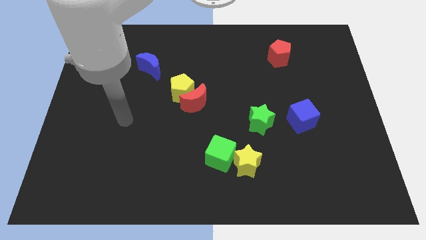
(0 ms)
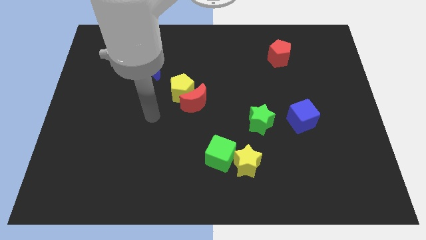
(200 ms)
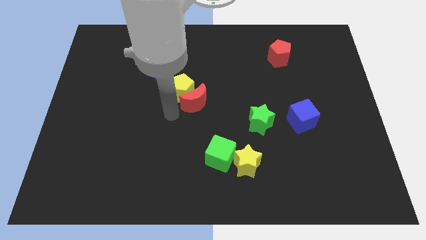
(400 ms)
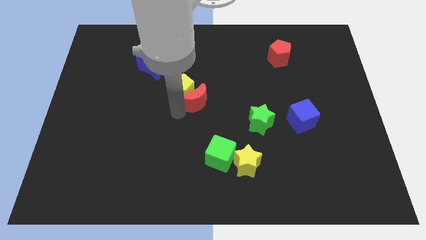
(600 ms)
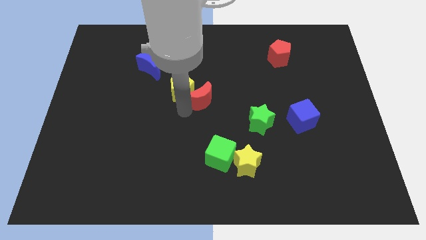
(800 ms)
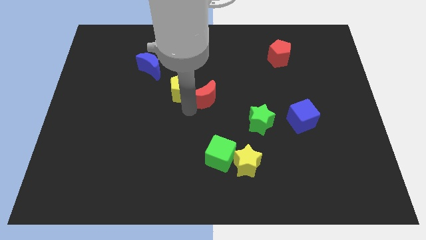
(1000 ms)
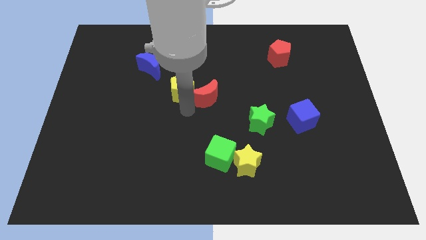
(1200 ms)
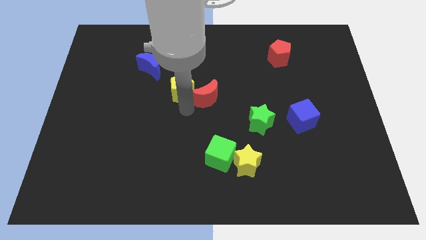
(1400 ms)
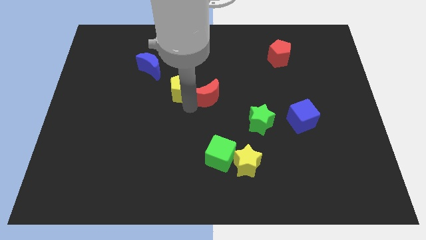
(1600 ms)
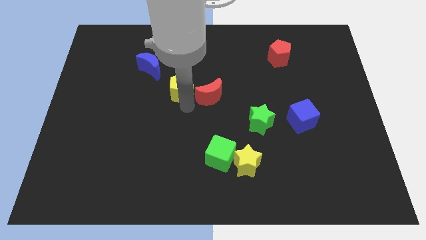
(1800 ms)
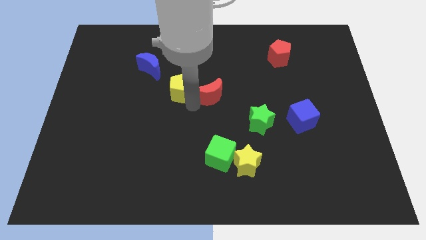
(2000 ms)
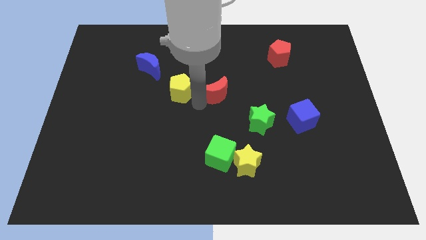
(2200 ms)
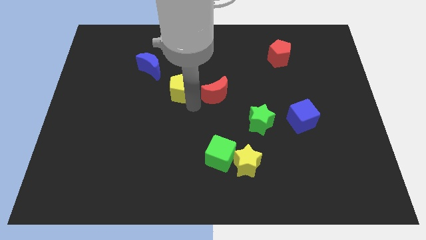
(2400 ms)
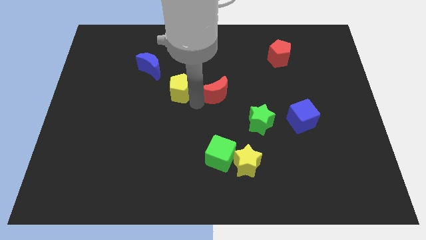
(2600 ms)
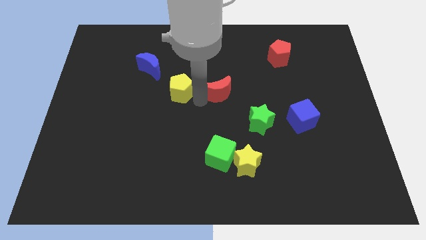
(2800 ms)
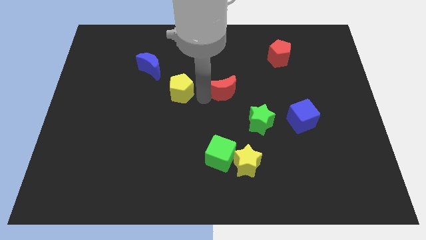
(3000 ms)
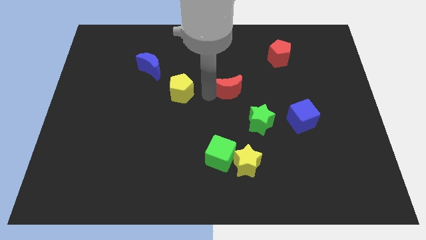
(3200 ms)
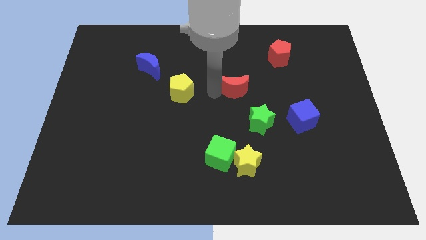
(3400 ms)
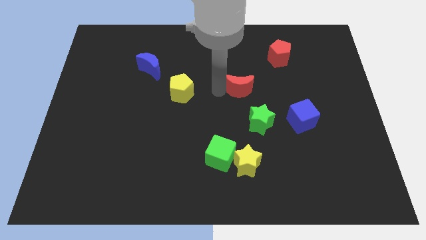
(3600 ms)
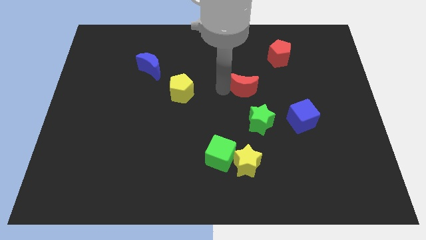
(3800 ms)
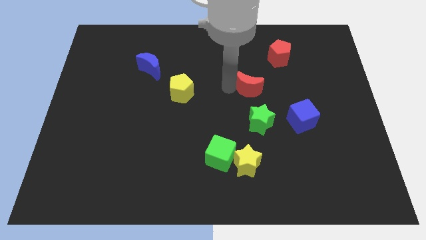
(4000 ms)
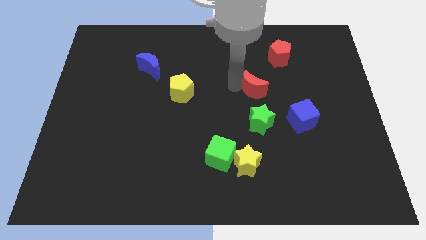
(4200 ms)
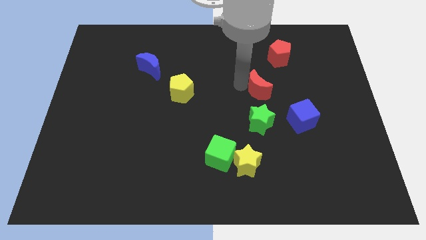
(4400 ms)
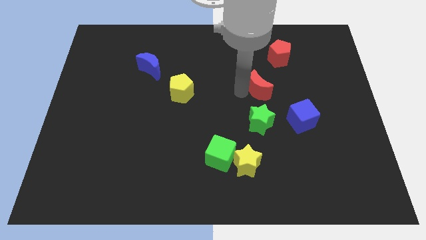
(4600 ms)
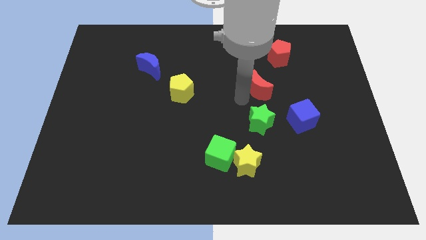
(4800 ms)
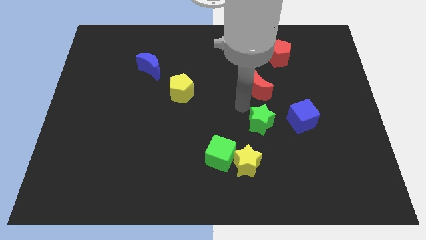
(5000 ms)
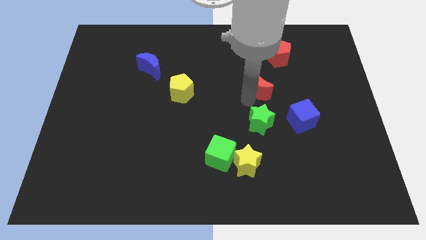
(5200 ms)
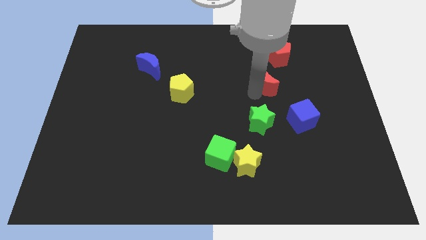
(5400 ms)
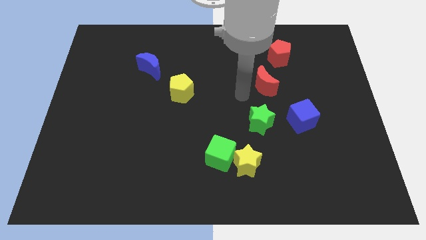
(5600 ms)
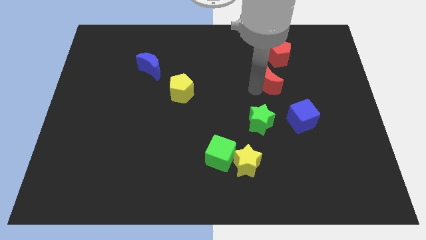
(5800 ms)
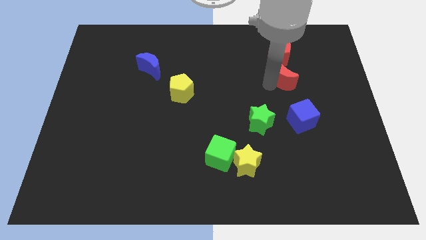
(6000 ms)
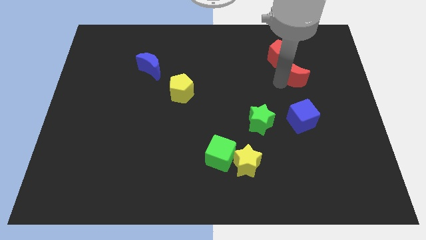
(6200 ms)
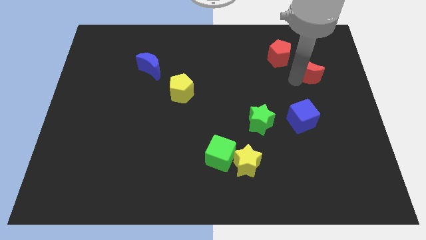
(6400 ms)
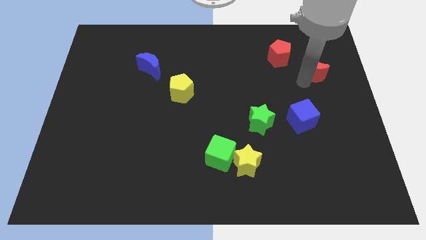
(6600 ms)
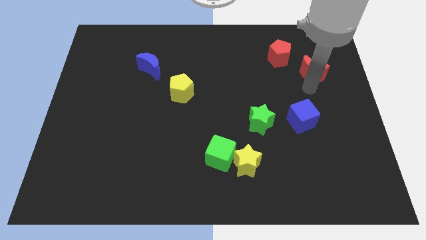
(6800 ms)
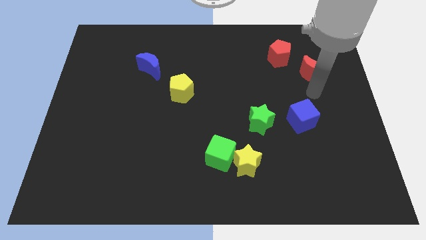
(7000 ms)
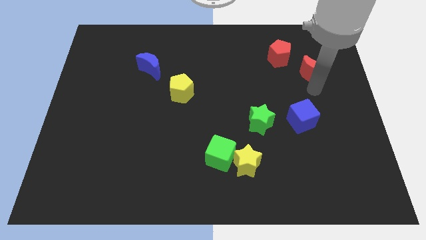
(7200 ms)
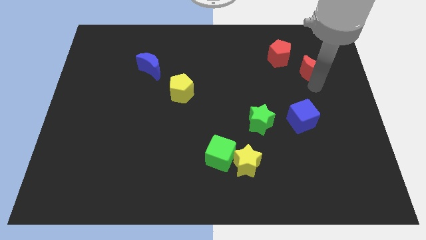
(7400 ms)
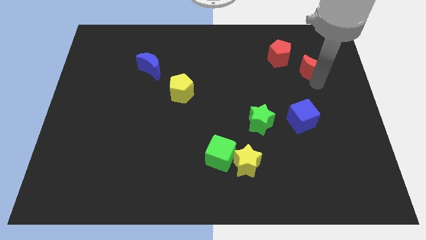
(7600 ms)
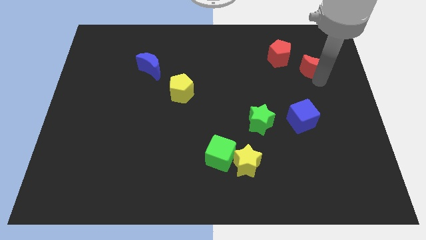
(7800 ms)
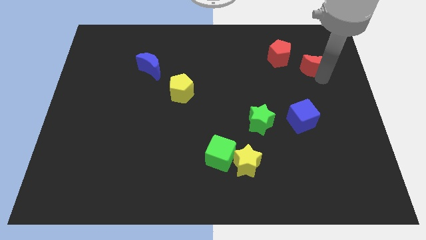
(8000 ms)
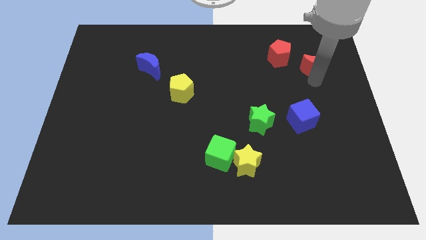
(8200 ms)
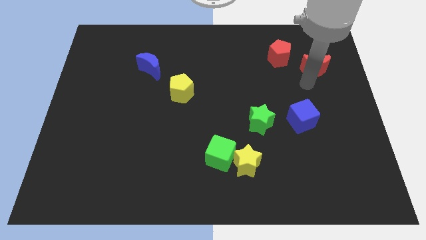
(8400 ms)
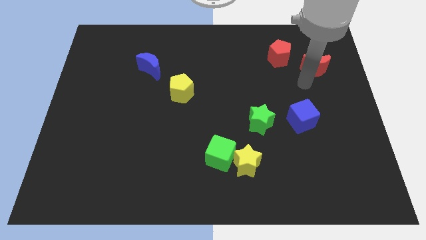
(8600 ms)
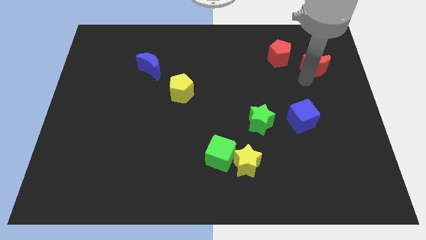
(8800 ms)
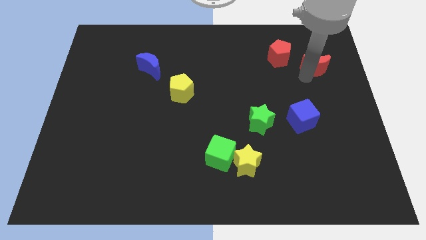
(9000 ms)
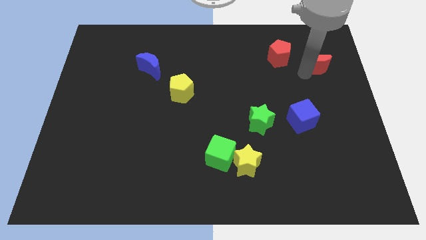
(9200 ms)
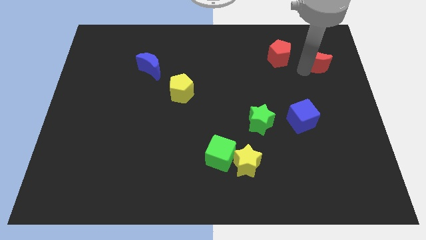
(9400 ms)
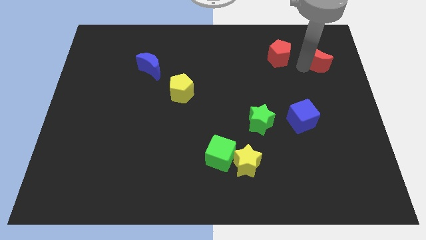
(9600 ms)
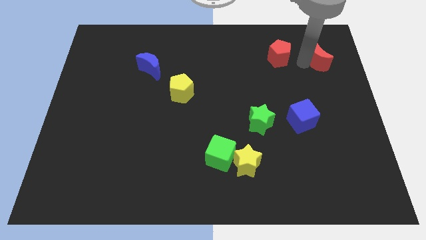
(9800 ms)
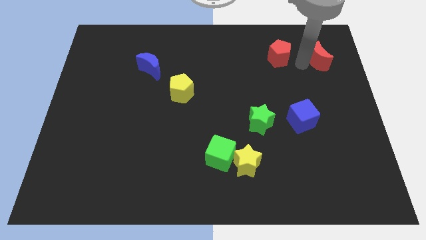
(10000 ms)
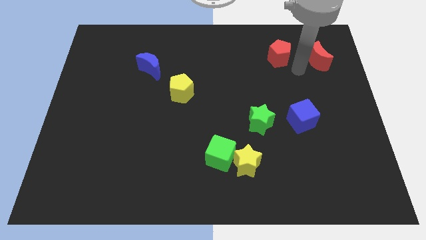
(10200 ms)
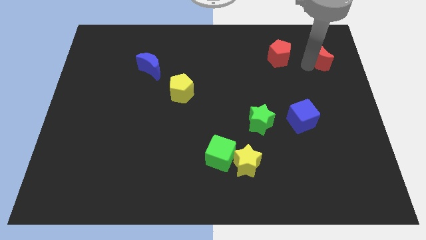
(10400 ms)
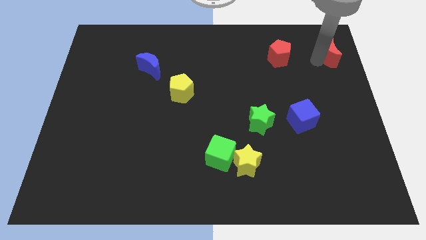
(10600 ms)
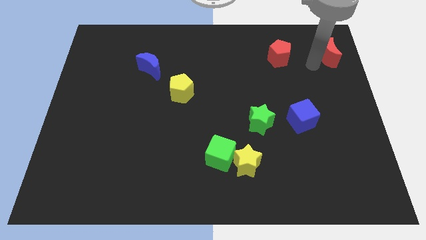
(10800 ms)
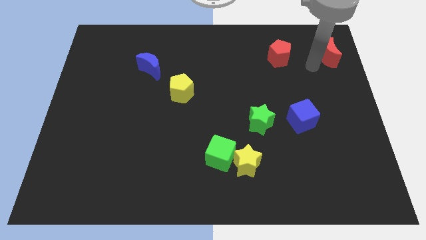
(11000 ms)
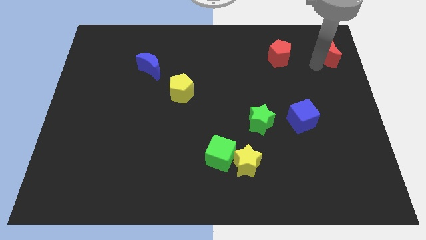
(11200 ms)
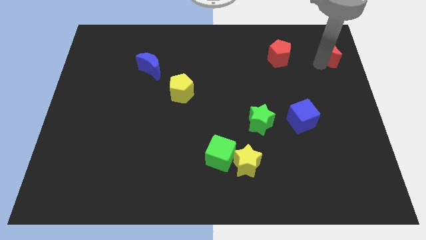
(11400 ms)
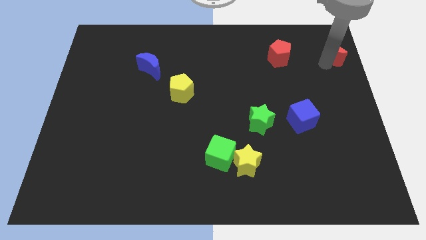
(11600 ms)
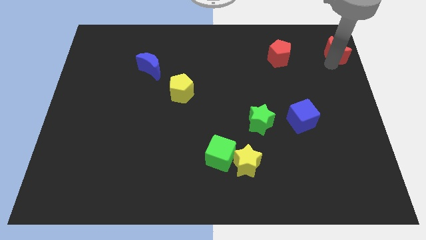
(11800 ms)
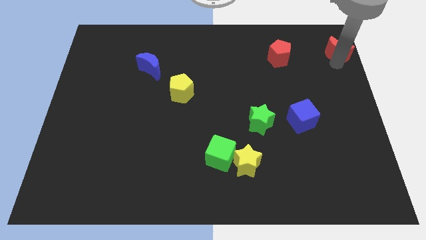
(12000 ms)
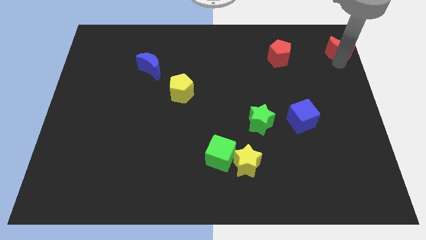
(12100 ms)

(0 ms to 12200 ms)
slide the red moon to the top right

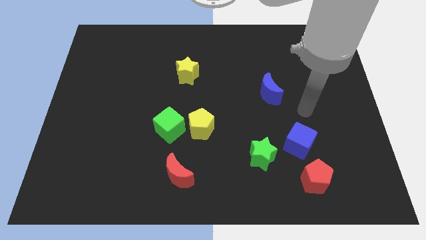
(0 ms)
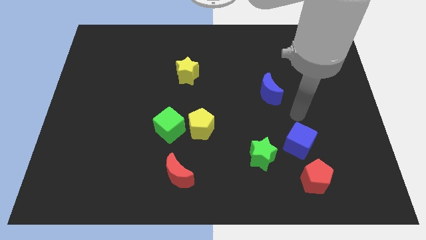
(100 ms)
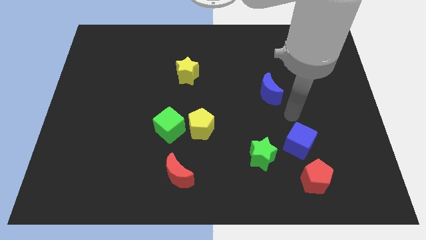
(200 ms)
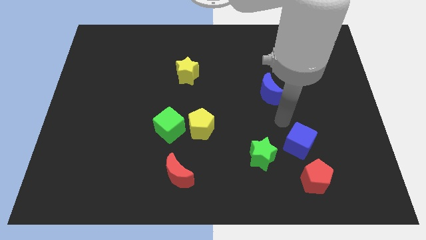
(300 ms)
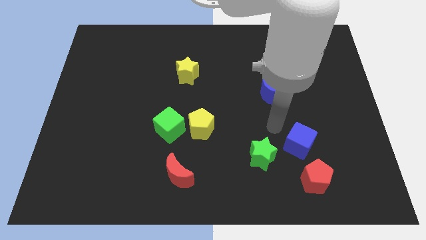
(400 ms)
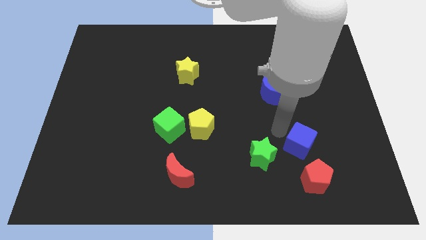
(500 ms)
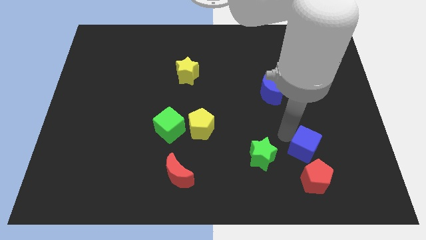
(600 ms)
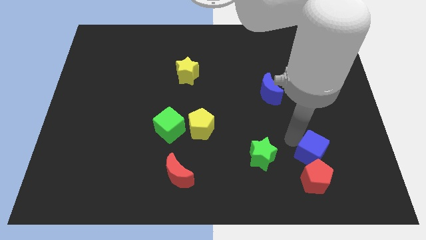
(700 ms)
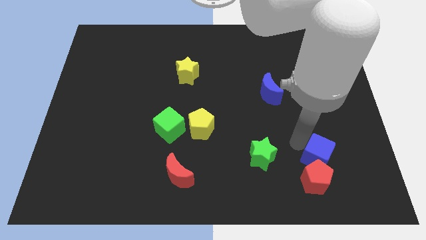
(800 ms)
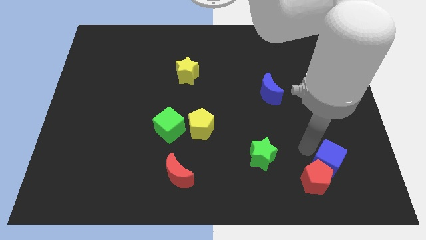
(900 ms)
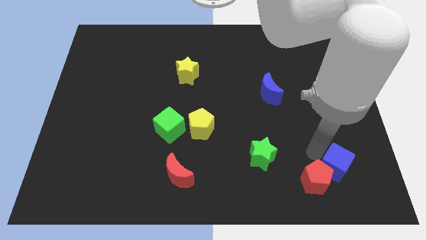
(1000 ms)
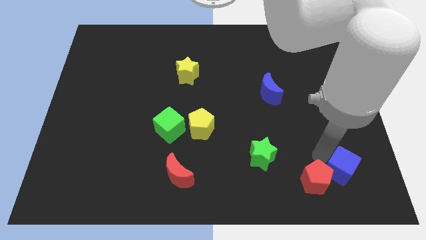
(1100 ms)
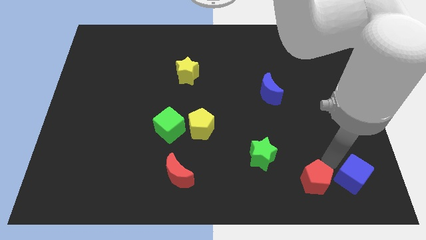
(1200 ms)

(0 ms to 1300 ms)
push the blue cube to the bottom right of the board
